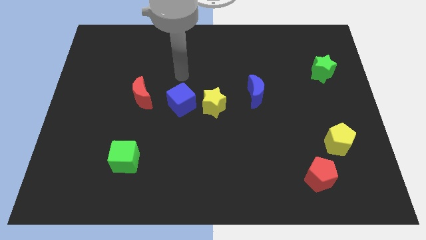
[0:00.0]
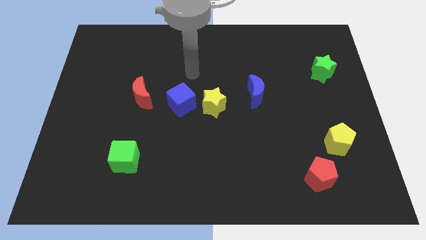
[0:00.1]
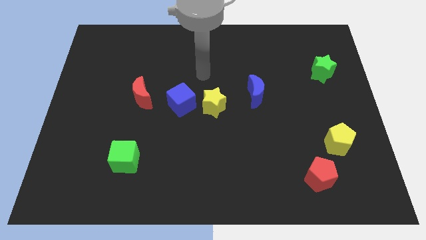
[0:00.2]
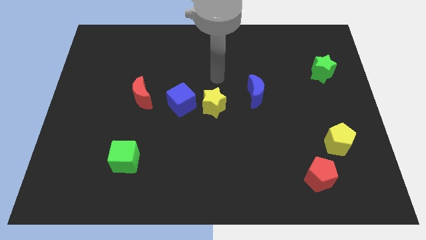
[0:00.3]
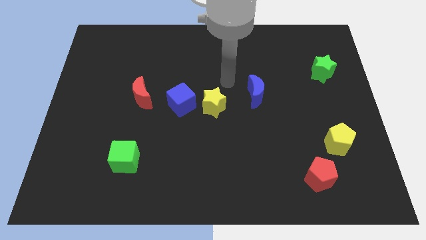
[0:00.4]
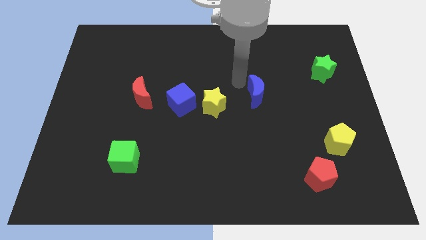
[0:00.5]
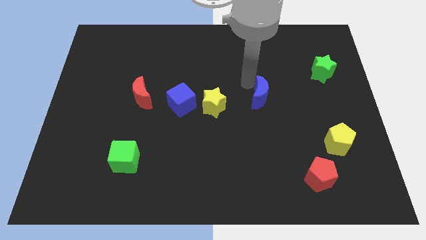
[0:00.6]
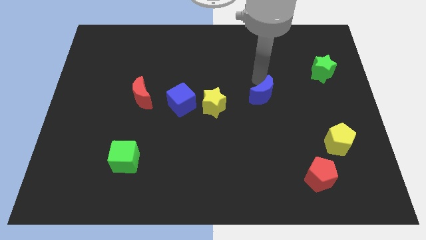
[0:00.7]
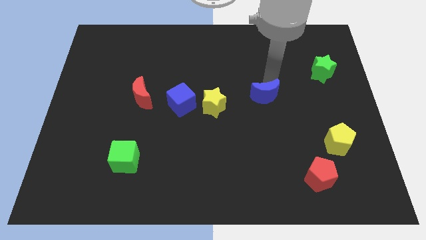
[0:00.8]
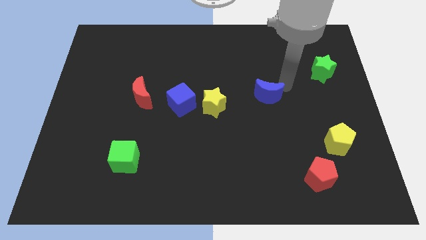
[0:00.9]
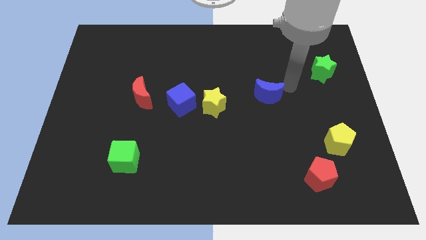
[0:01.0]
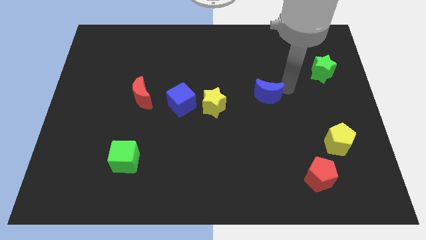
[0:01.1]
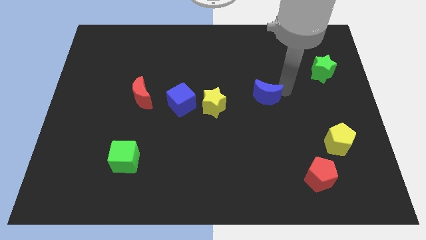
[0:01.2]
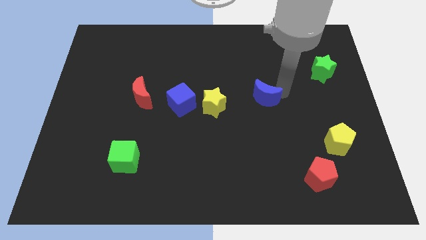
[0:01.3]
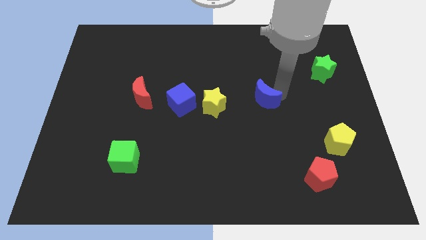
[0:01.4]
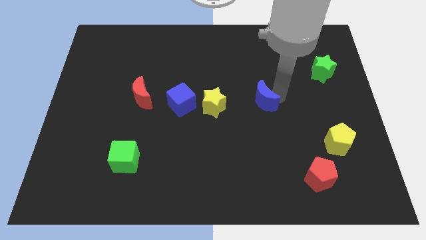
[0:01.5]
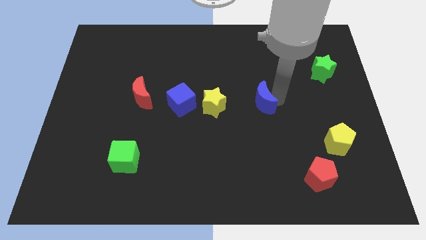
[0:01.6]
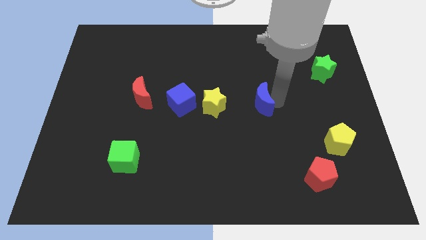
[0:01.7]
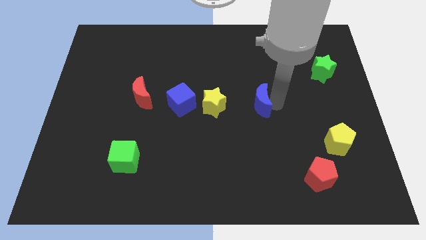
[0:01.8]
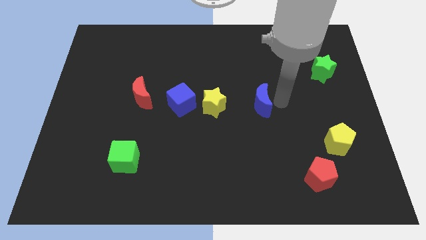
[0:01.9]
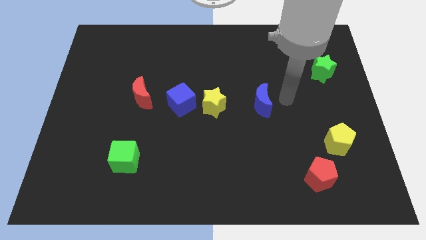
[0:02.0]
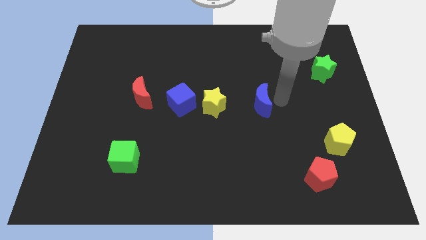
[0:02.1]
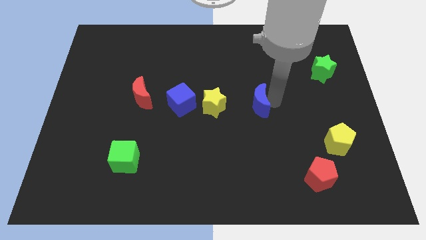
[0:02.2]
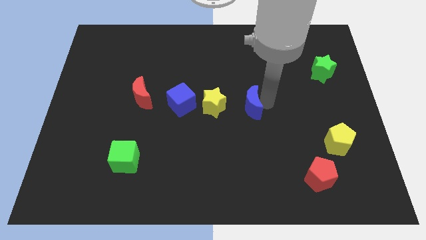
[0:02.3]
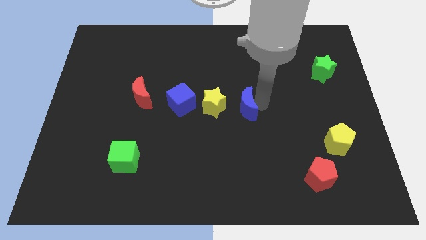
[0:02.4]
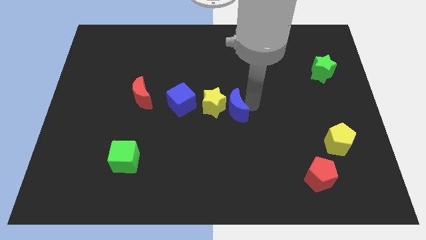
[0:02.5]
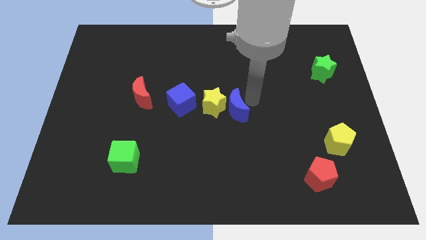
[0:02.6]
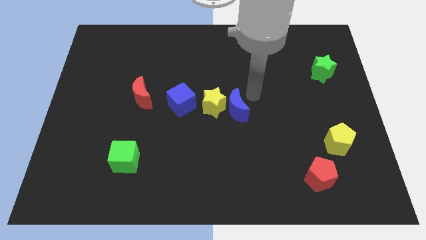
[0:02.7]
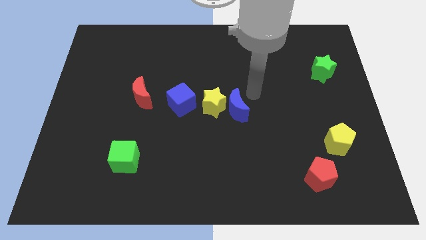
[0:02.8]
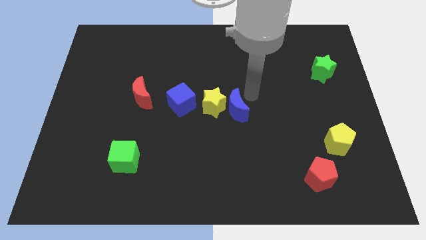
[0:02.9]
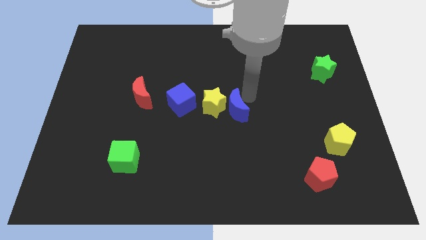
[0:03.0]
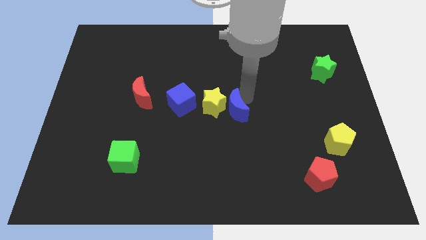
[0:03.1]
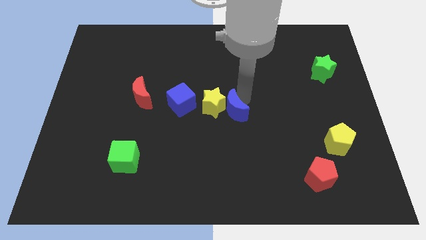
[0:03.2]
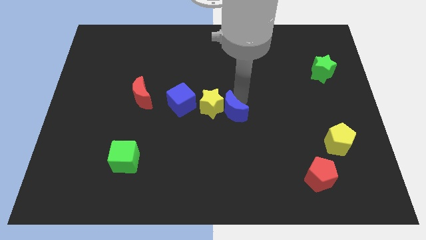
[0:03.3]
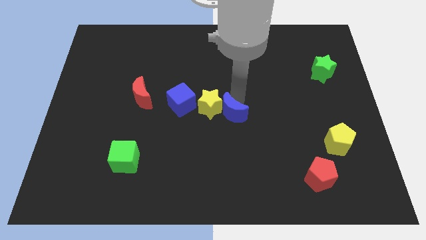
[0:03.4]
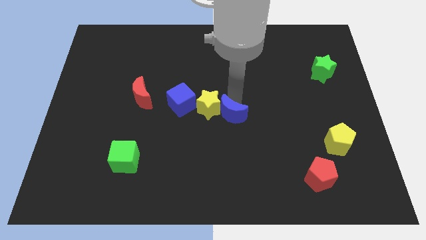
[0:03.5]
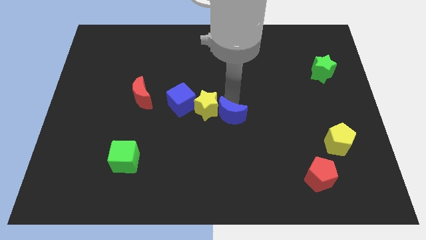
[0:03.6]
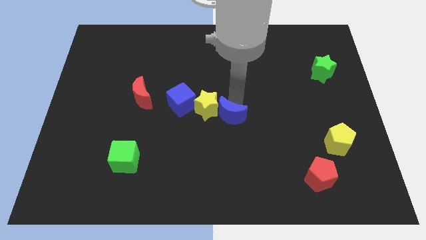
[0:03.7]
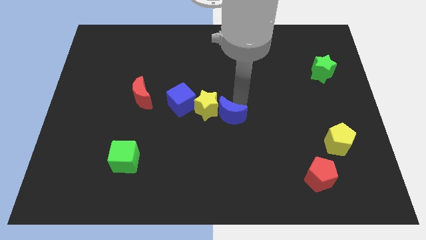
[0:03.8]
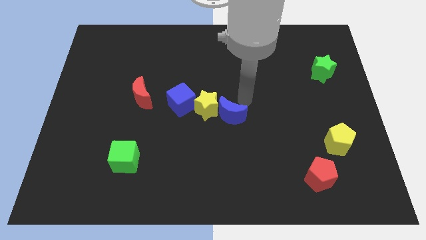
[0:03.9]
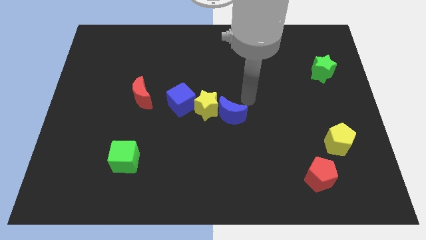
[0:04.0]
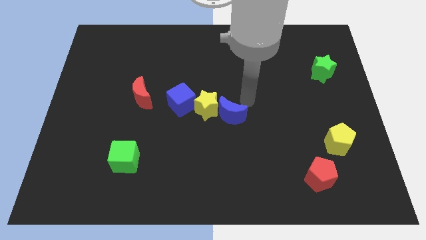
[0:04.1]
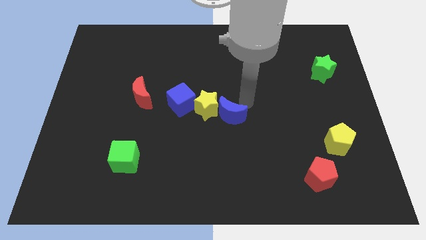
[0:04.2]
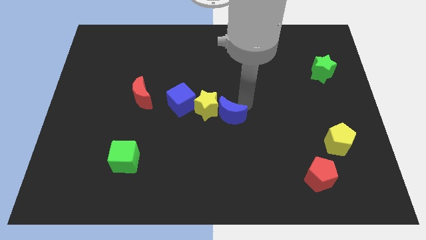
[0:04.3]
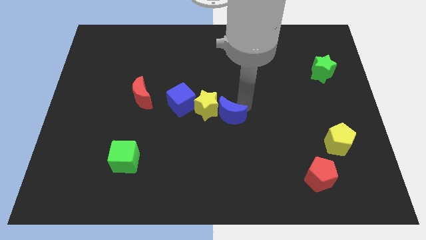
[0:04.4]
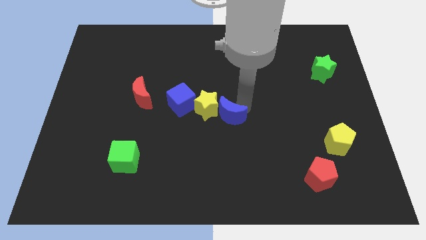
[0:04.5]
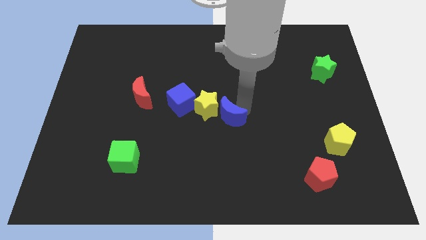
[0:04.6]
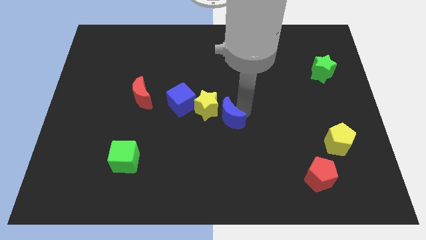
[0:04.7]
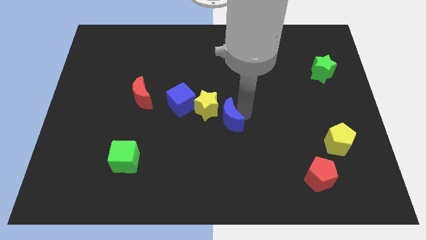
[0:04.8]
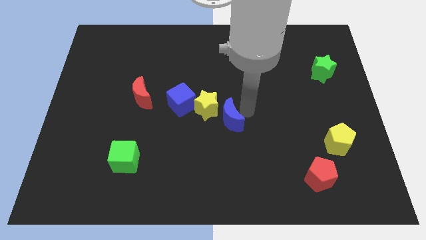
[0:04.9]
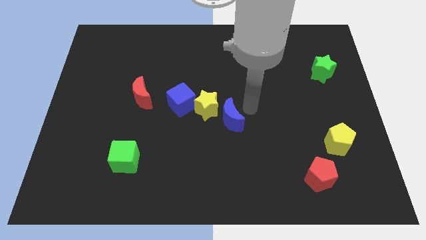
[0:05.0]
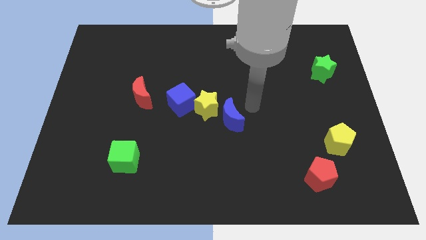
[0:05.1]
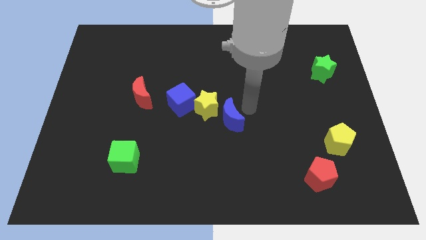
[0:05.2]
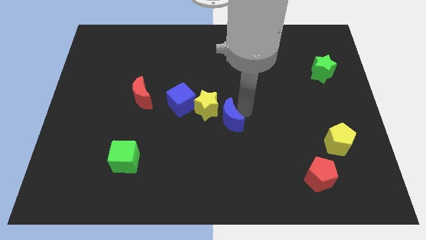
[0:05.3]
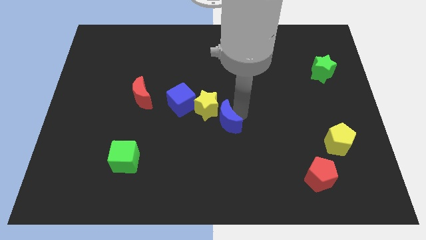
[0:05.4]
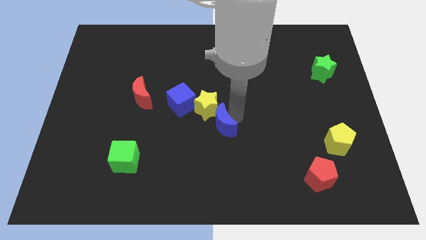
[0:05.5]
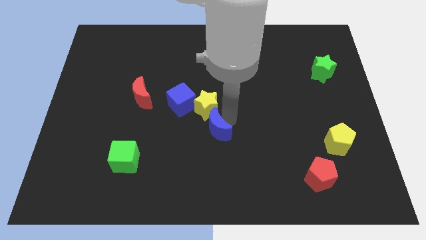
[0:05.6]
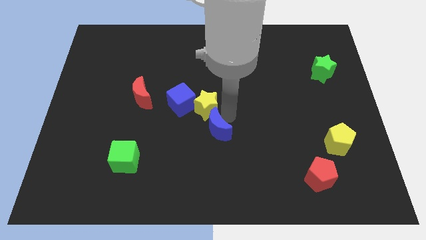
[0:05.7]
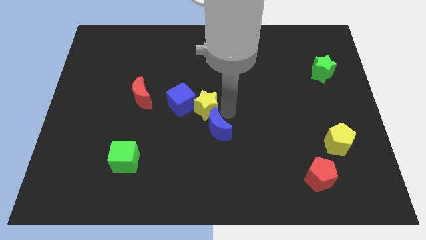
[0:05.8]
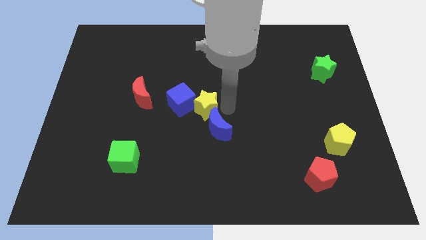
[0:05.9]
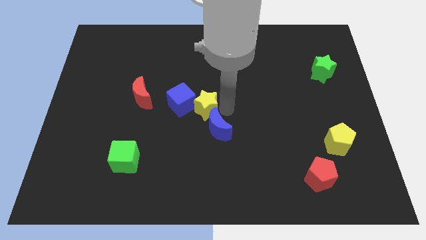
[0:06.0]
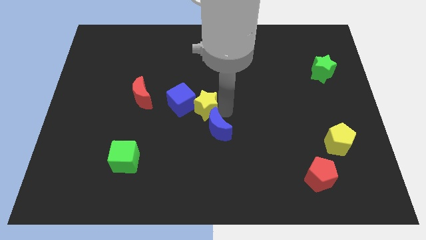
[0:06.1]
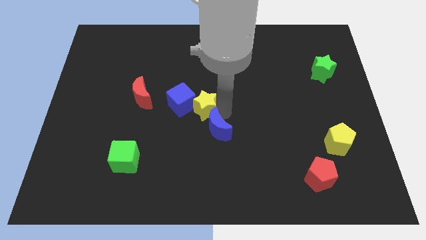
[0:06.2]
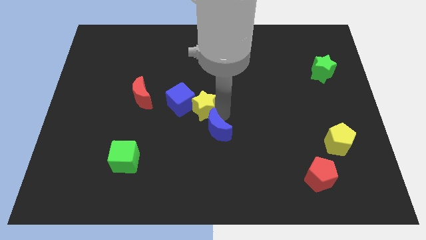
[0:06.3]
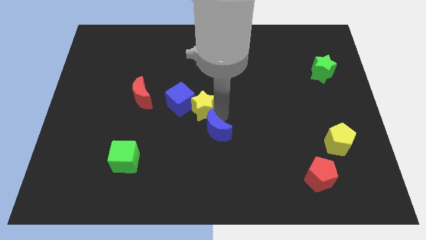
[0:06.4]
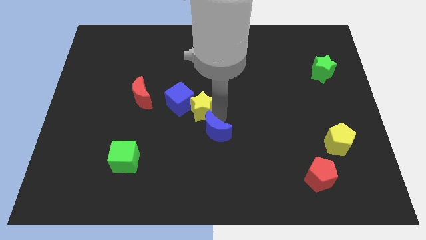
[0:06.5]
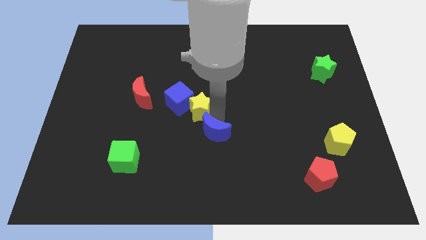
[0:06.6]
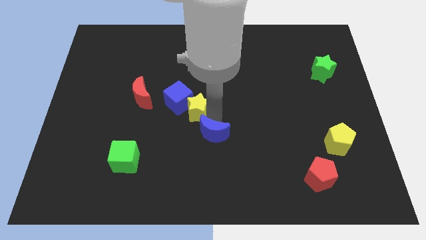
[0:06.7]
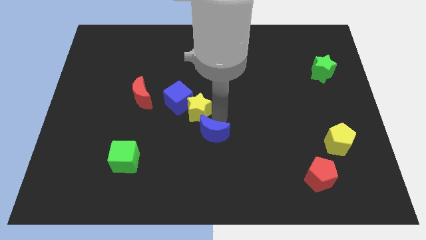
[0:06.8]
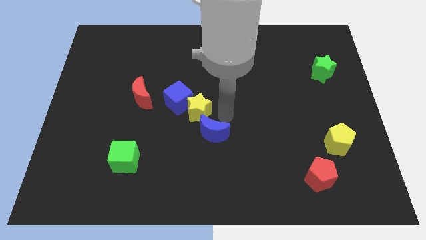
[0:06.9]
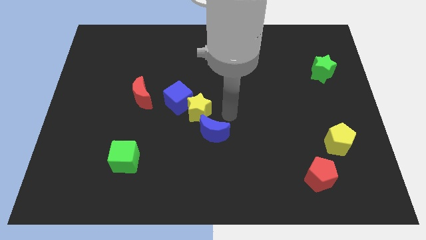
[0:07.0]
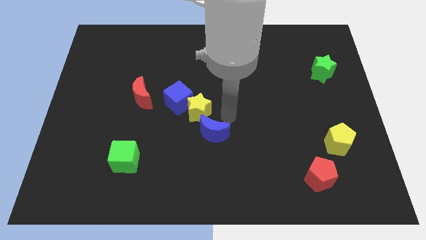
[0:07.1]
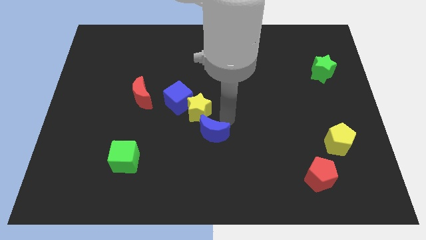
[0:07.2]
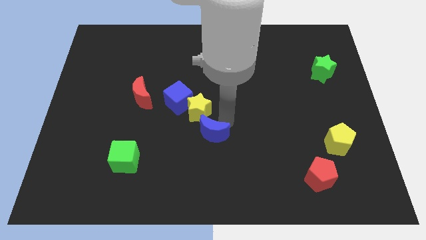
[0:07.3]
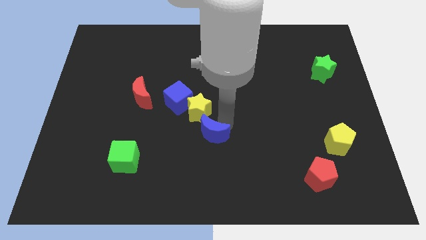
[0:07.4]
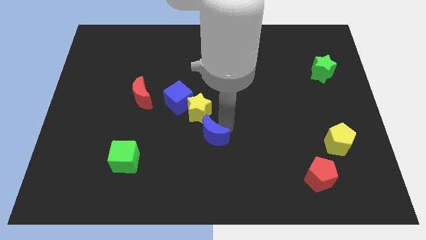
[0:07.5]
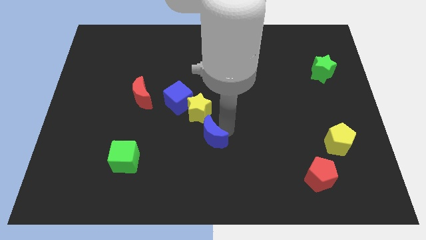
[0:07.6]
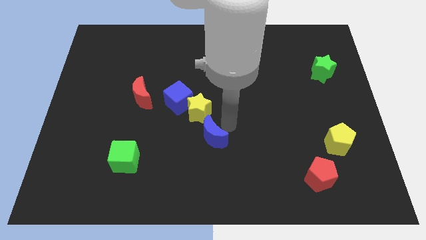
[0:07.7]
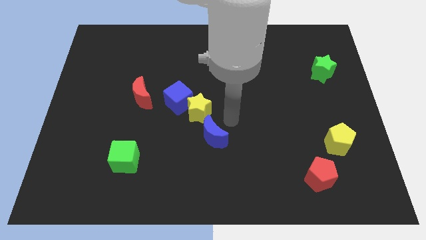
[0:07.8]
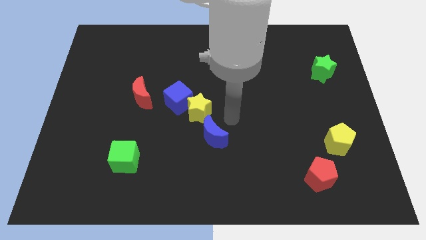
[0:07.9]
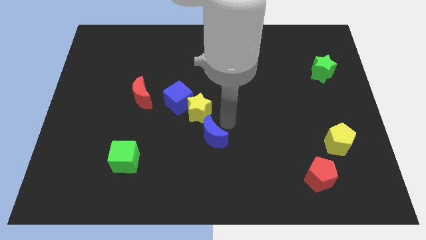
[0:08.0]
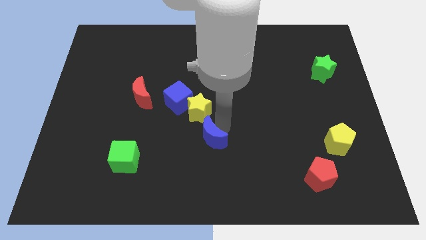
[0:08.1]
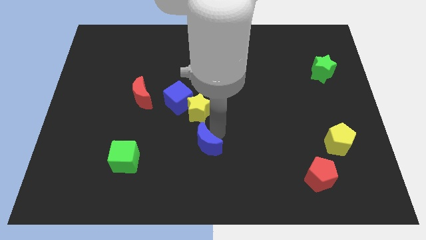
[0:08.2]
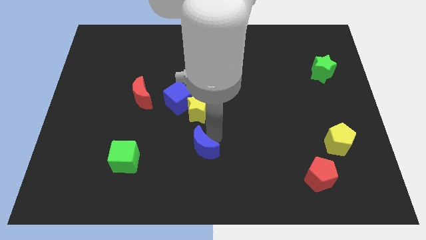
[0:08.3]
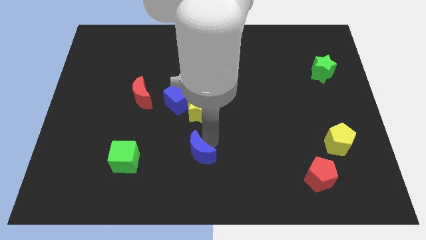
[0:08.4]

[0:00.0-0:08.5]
push the blue moon downwards and then left
